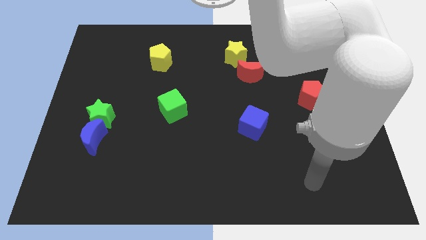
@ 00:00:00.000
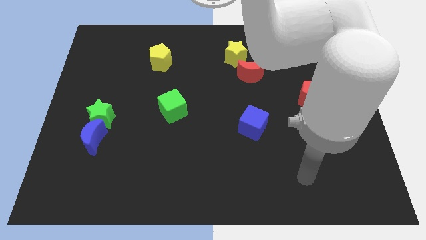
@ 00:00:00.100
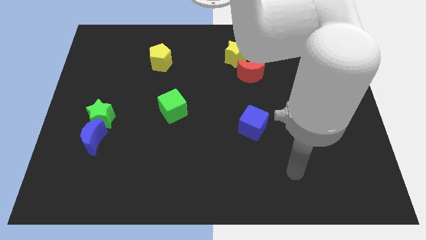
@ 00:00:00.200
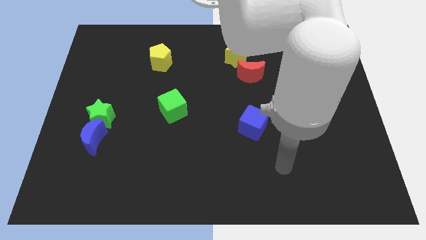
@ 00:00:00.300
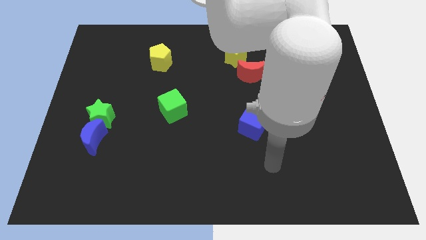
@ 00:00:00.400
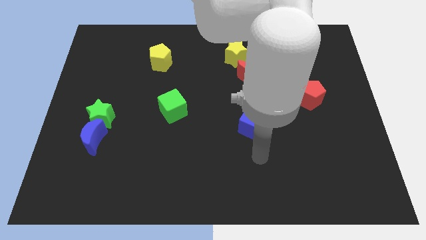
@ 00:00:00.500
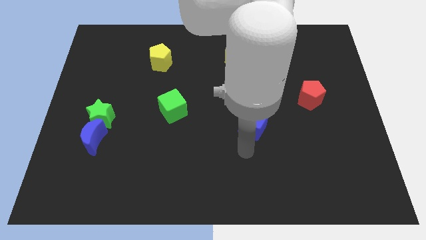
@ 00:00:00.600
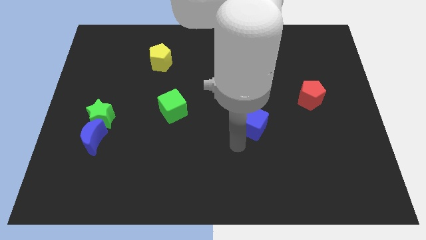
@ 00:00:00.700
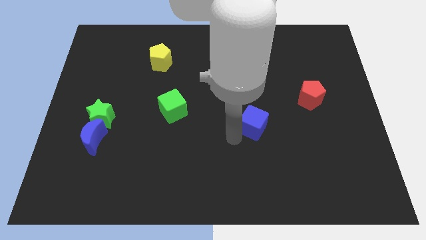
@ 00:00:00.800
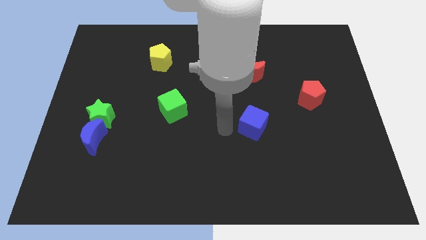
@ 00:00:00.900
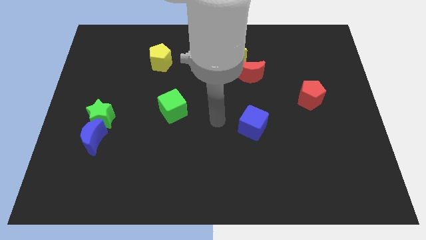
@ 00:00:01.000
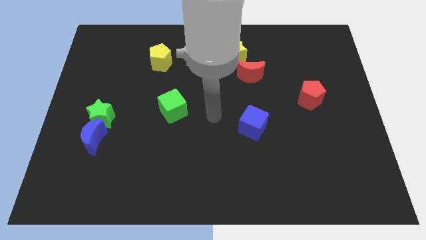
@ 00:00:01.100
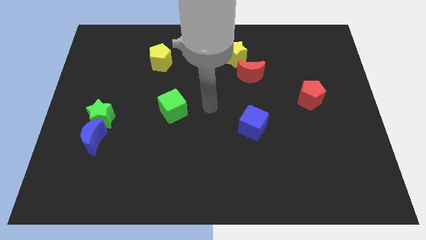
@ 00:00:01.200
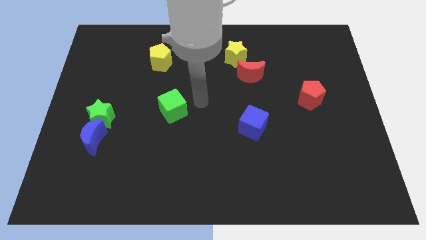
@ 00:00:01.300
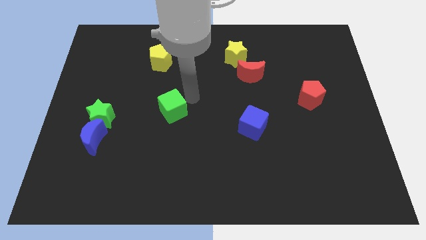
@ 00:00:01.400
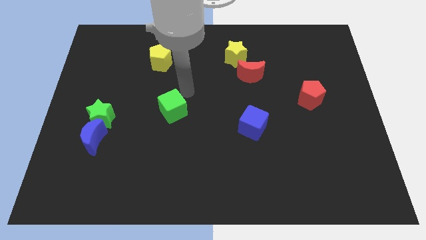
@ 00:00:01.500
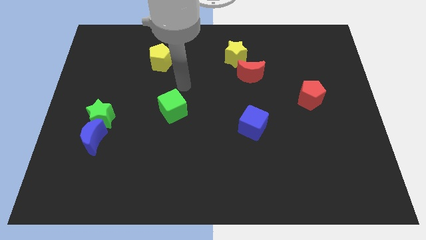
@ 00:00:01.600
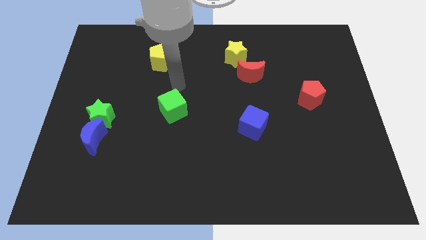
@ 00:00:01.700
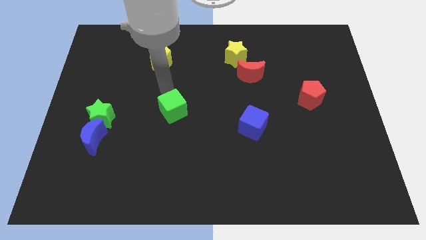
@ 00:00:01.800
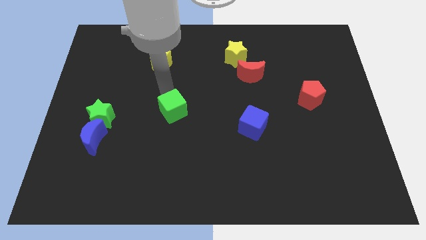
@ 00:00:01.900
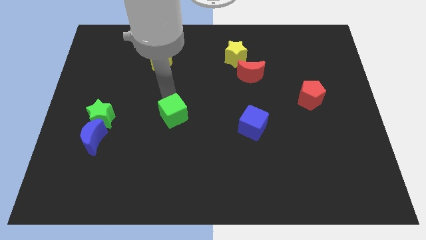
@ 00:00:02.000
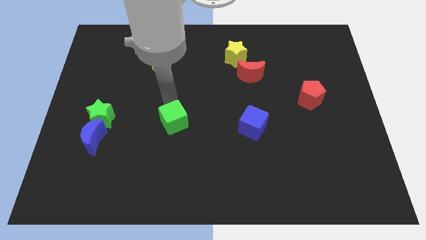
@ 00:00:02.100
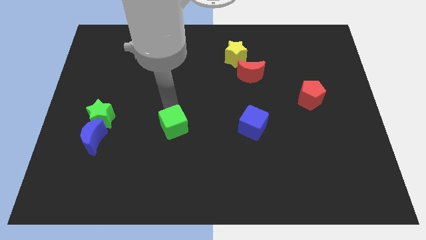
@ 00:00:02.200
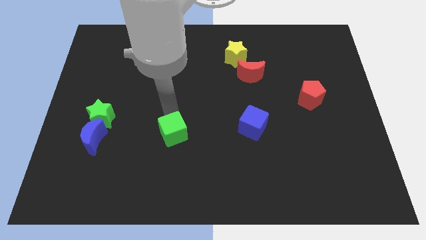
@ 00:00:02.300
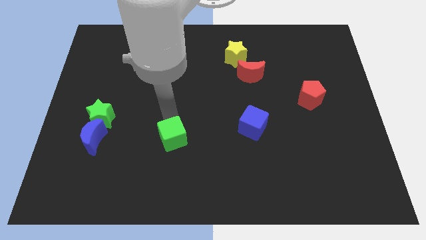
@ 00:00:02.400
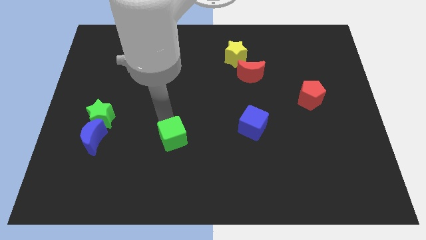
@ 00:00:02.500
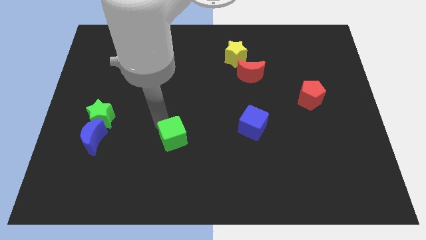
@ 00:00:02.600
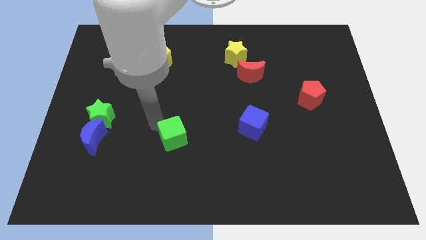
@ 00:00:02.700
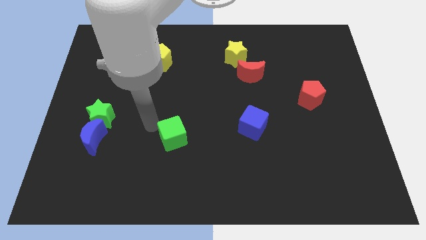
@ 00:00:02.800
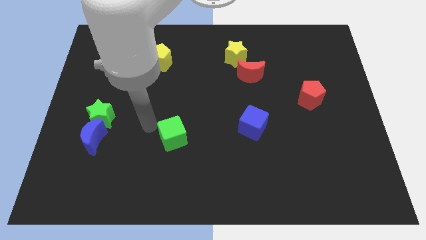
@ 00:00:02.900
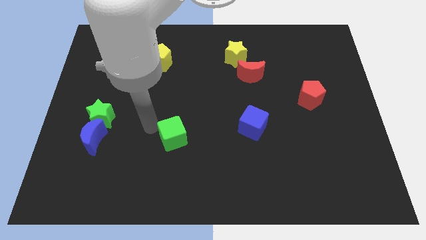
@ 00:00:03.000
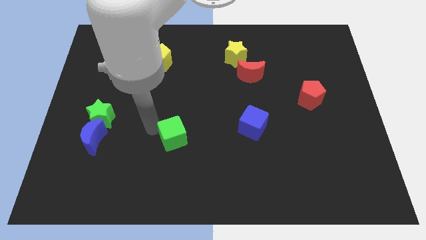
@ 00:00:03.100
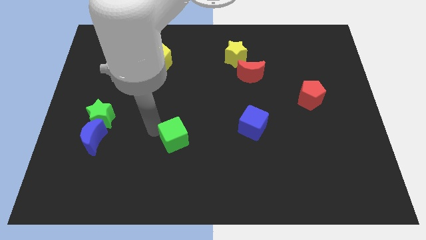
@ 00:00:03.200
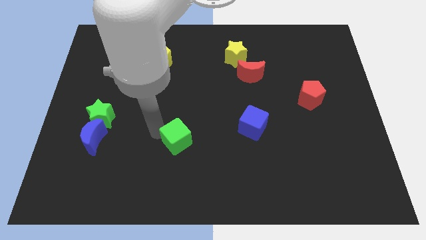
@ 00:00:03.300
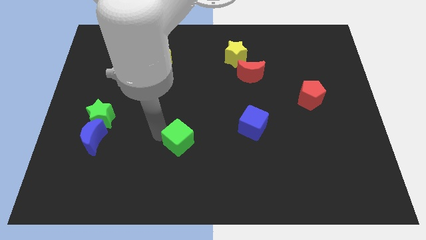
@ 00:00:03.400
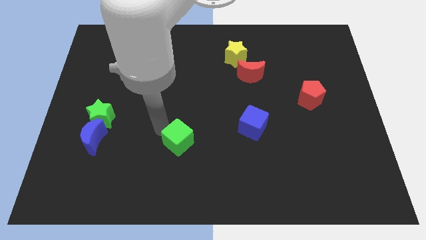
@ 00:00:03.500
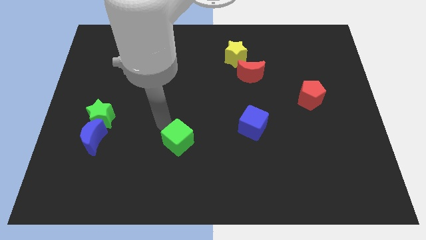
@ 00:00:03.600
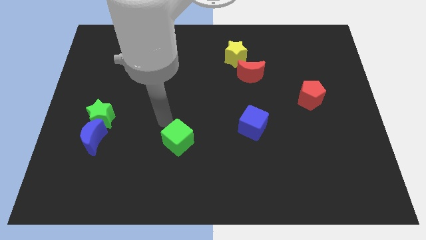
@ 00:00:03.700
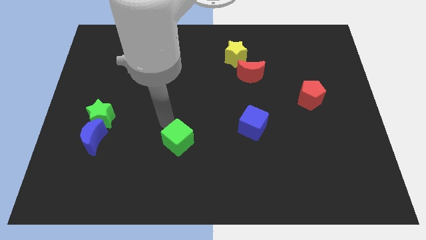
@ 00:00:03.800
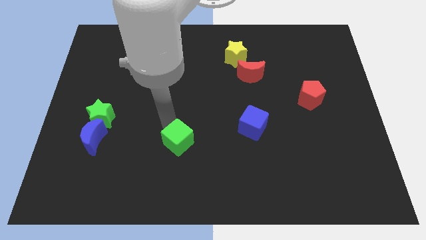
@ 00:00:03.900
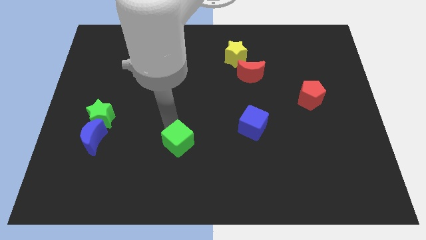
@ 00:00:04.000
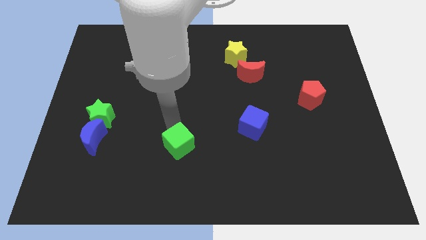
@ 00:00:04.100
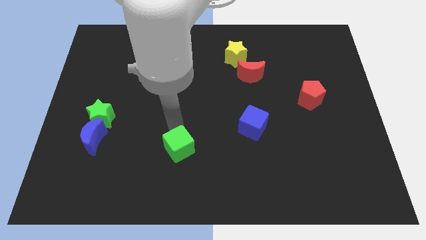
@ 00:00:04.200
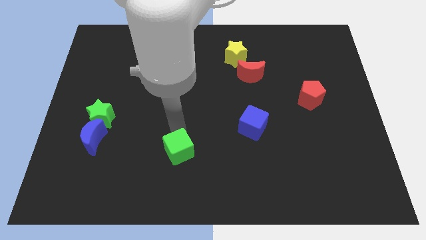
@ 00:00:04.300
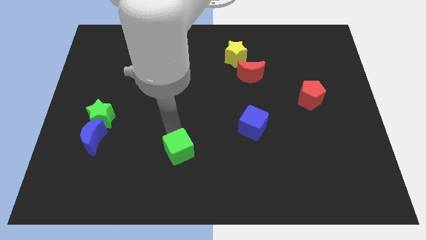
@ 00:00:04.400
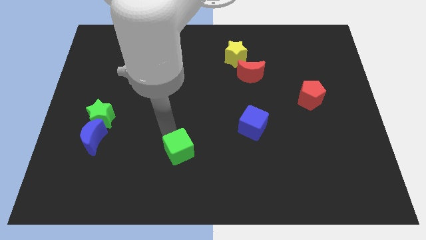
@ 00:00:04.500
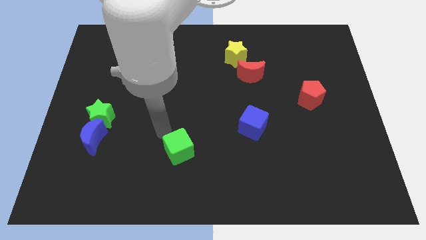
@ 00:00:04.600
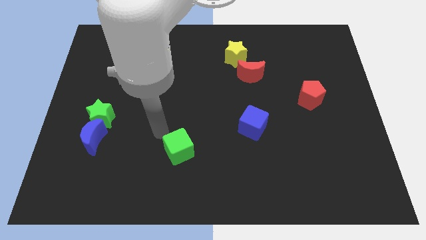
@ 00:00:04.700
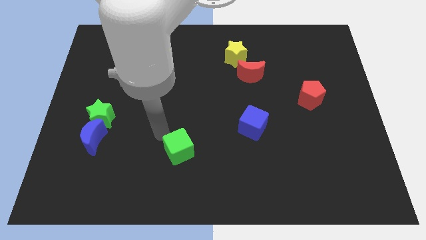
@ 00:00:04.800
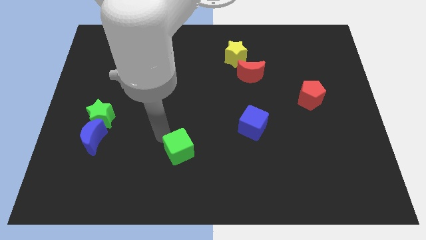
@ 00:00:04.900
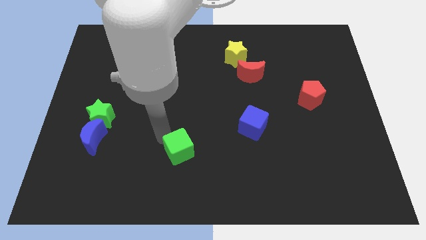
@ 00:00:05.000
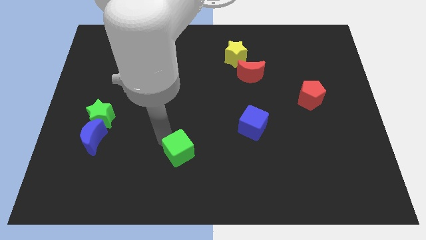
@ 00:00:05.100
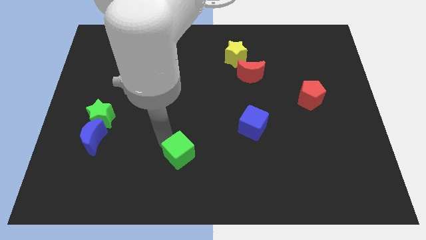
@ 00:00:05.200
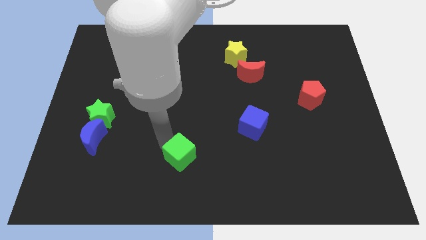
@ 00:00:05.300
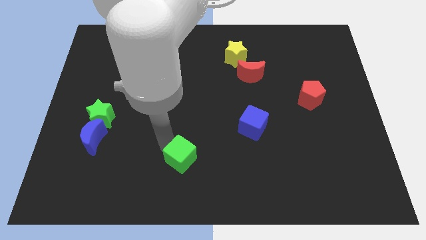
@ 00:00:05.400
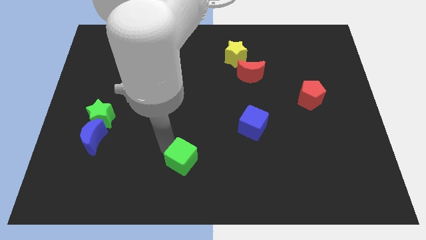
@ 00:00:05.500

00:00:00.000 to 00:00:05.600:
move the green cube to the bottom
